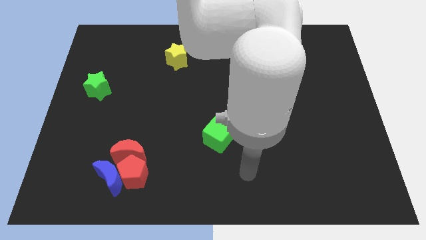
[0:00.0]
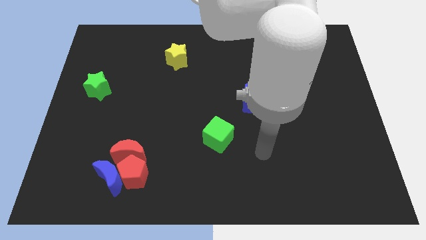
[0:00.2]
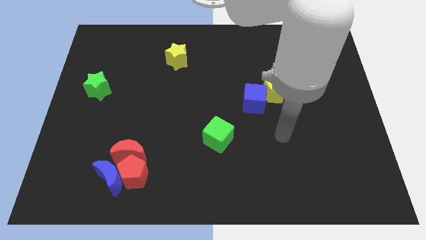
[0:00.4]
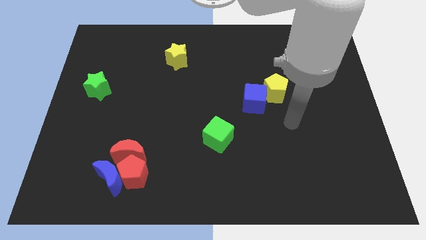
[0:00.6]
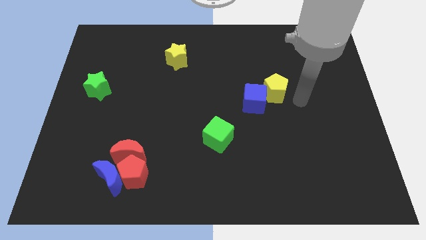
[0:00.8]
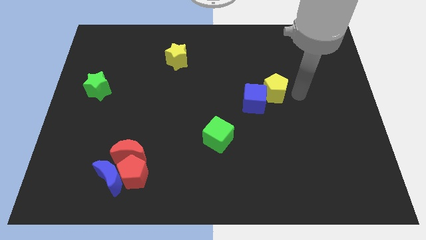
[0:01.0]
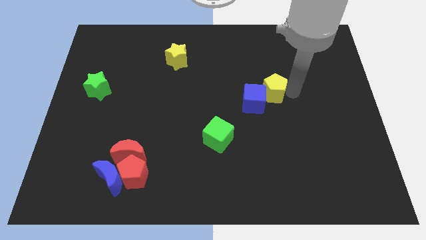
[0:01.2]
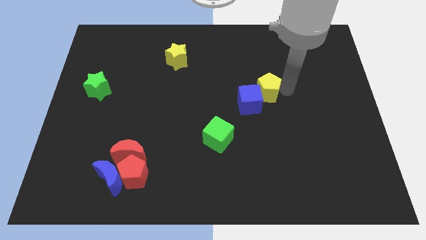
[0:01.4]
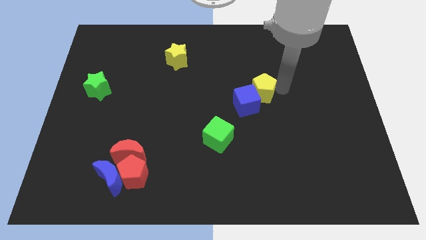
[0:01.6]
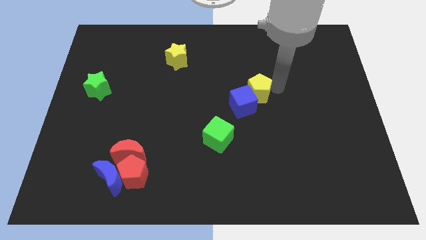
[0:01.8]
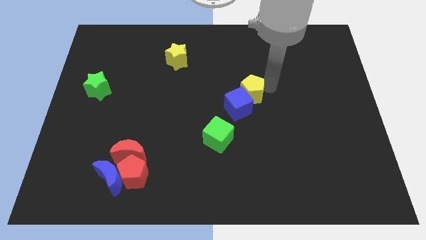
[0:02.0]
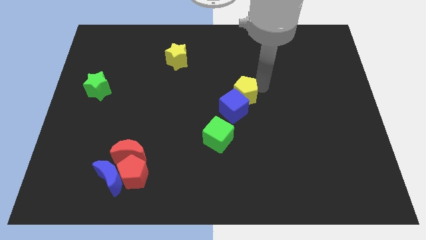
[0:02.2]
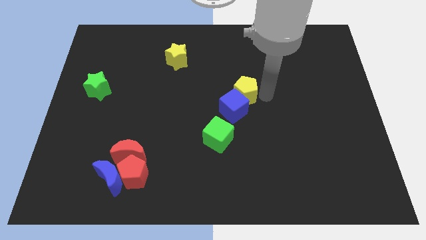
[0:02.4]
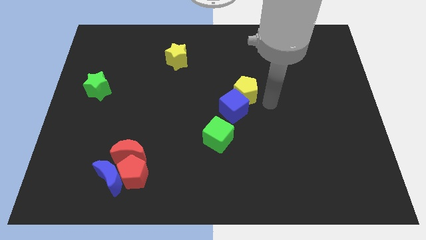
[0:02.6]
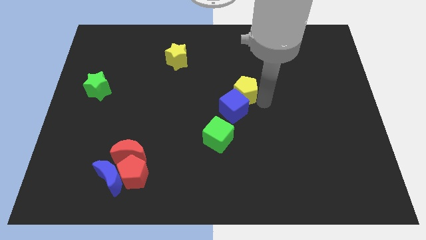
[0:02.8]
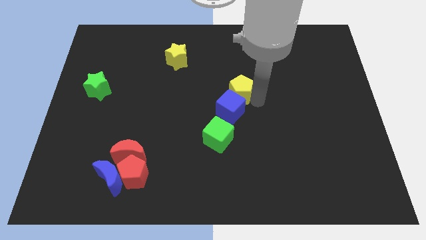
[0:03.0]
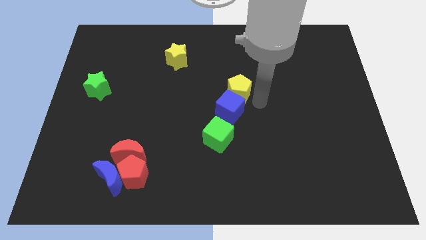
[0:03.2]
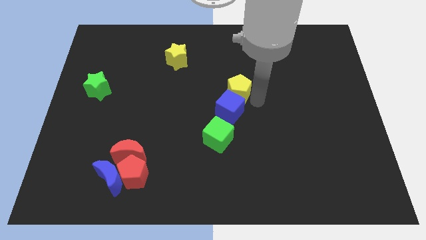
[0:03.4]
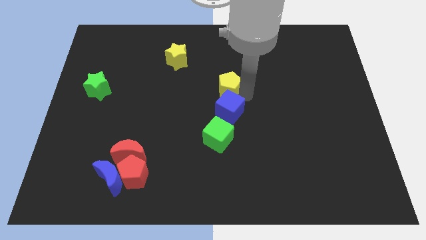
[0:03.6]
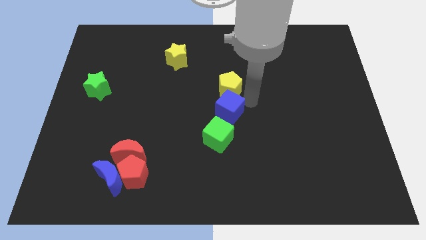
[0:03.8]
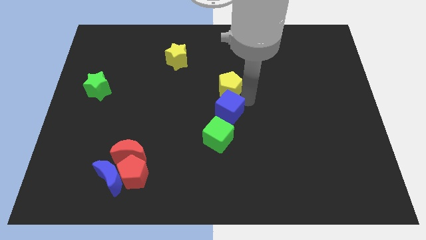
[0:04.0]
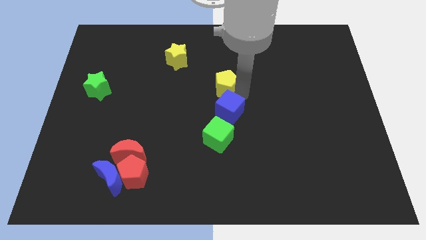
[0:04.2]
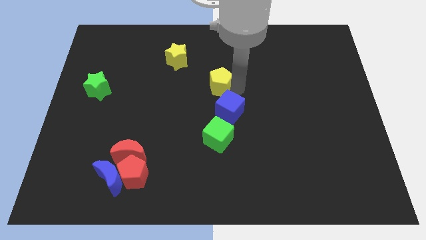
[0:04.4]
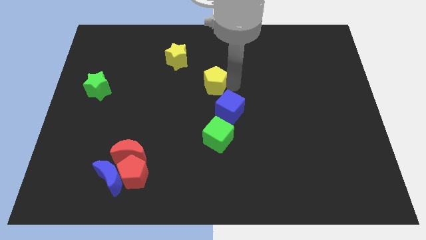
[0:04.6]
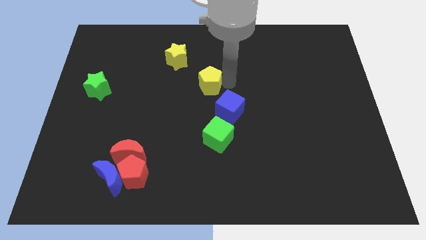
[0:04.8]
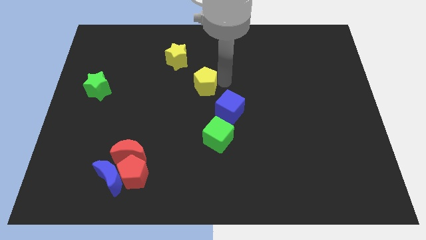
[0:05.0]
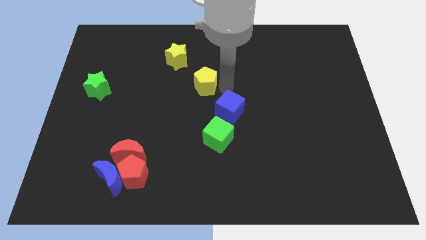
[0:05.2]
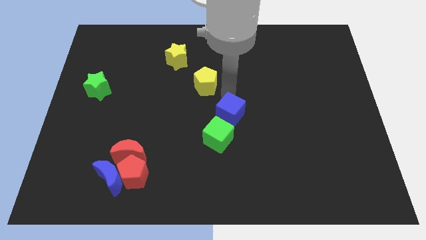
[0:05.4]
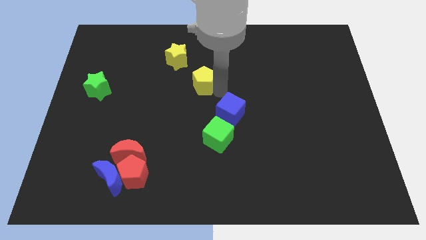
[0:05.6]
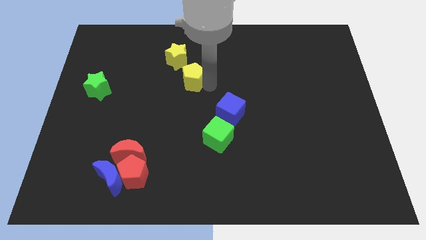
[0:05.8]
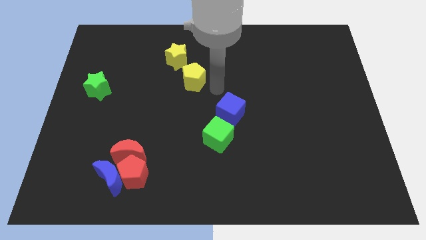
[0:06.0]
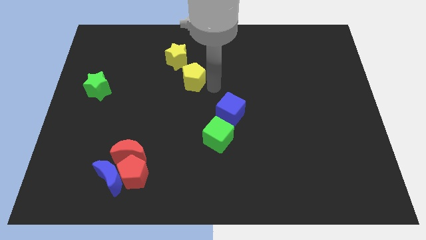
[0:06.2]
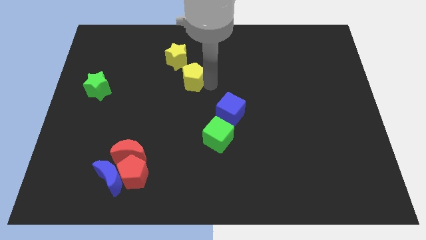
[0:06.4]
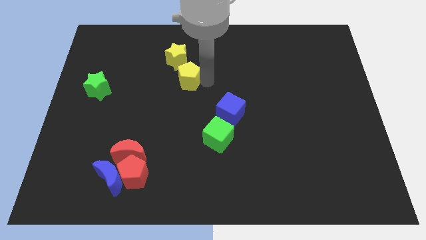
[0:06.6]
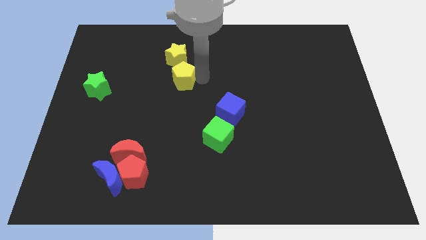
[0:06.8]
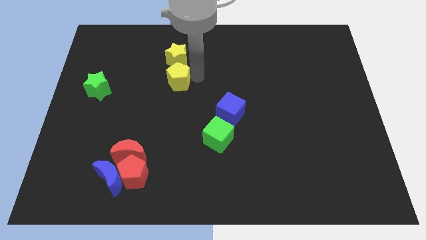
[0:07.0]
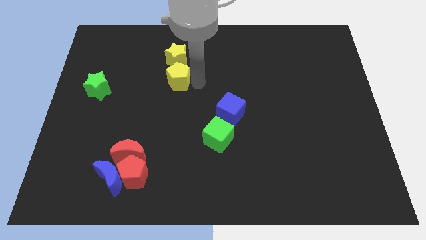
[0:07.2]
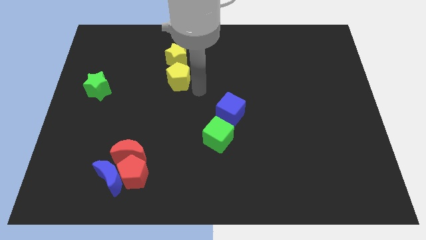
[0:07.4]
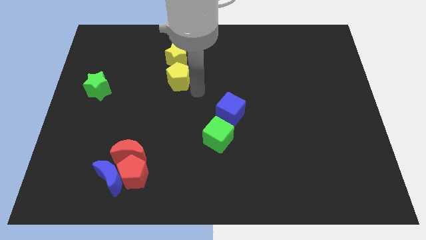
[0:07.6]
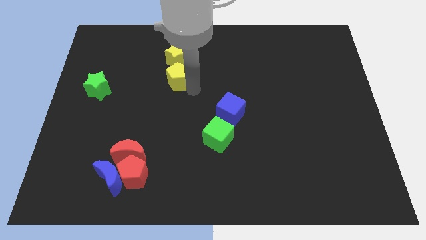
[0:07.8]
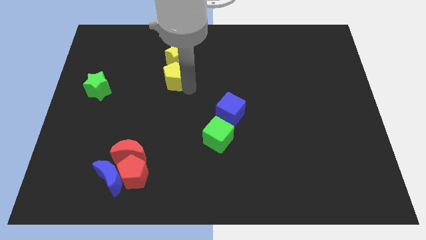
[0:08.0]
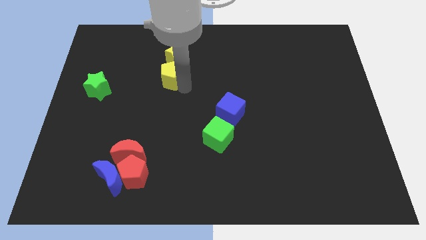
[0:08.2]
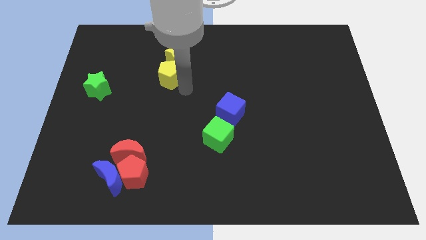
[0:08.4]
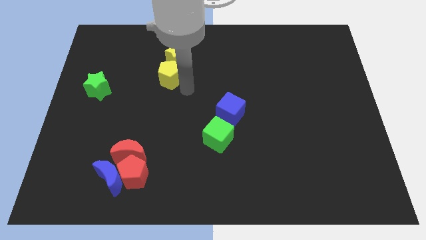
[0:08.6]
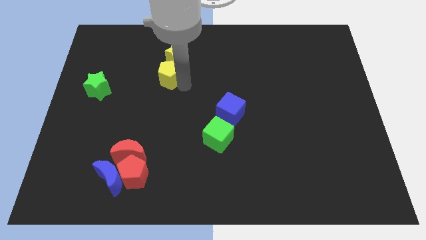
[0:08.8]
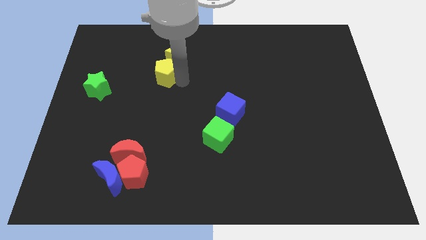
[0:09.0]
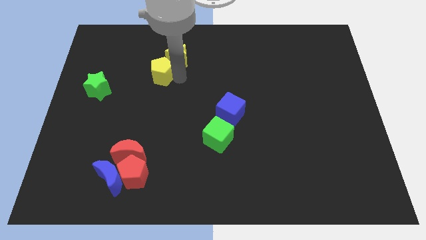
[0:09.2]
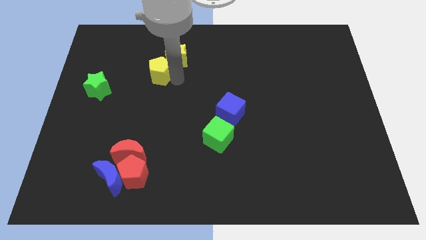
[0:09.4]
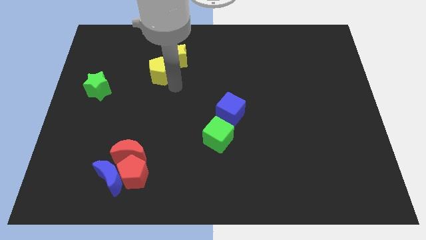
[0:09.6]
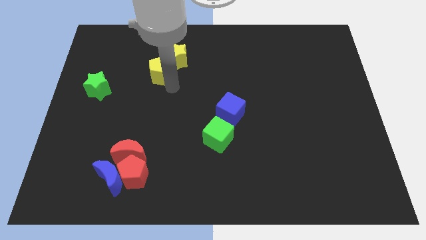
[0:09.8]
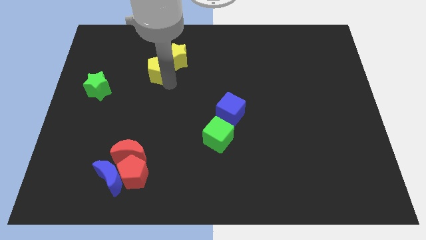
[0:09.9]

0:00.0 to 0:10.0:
put the yellow pentagon to the left side of the yellow star

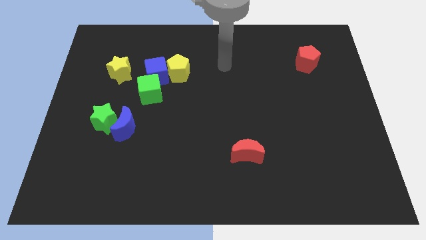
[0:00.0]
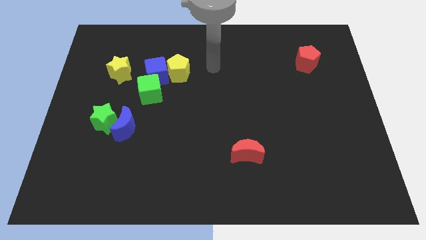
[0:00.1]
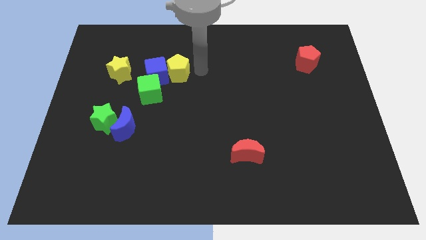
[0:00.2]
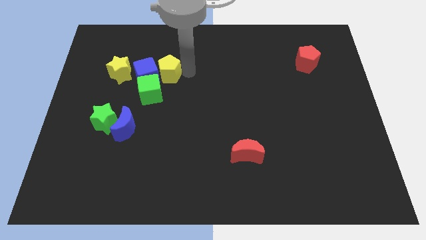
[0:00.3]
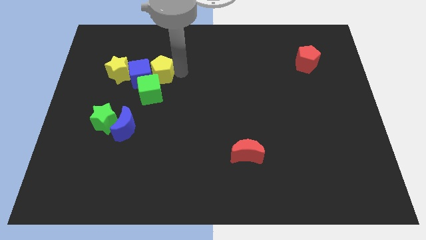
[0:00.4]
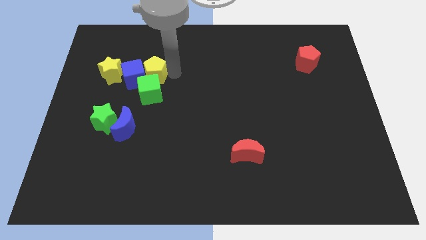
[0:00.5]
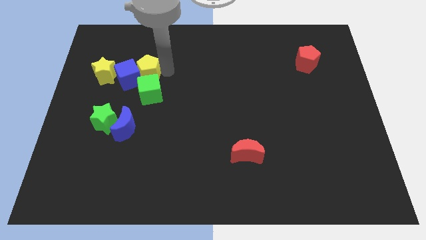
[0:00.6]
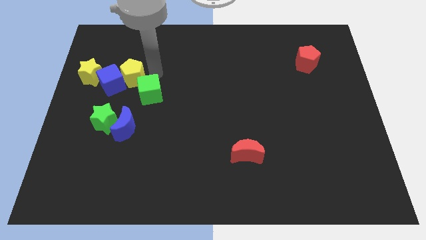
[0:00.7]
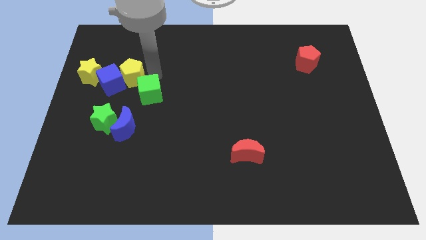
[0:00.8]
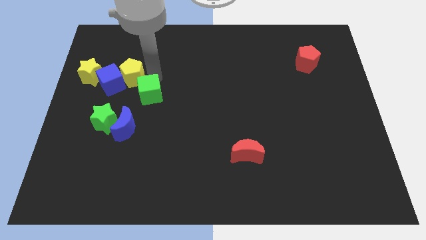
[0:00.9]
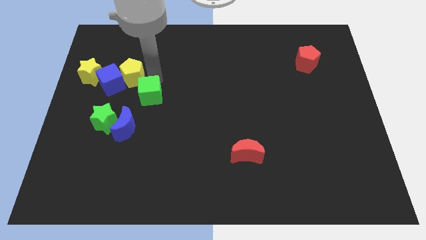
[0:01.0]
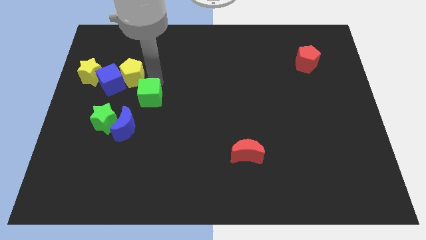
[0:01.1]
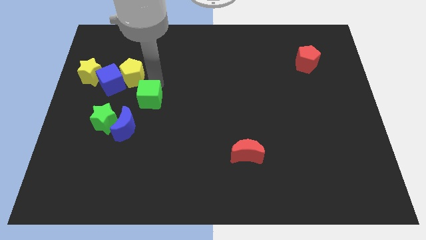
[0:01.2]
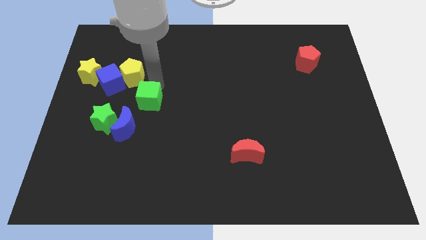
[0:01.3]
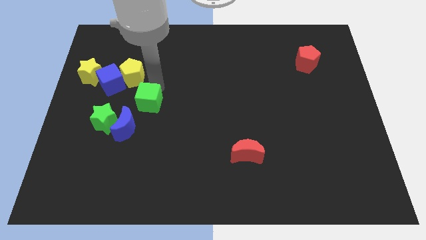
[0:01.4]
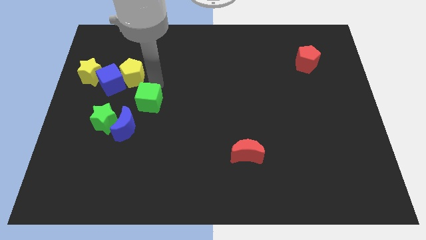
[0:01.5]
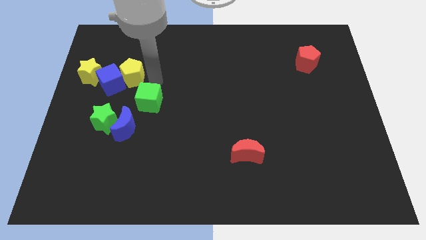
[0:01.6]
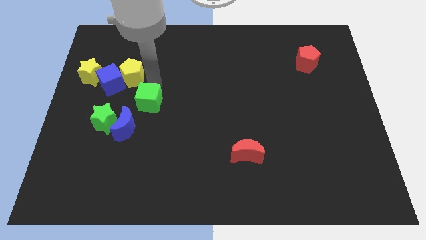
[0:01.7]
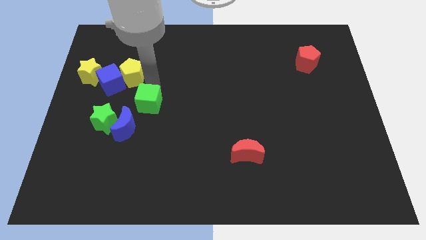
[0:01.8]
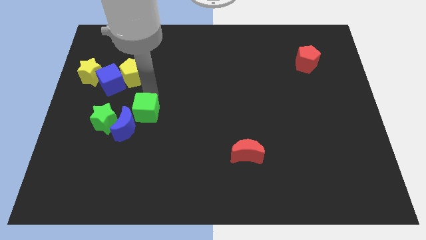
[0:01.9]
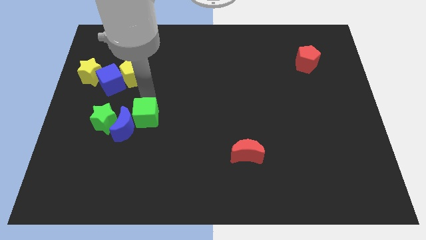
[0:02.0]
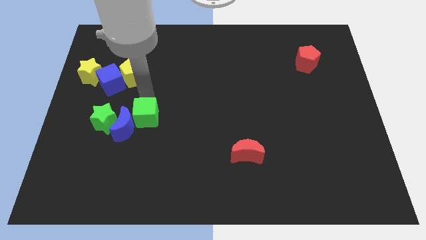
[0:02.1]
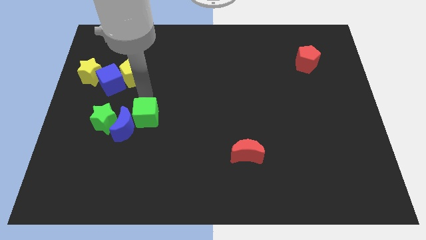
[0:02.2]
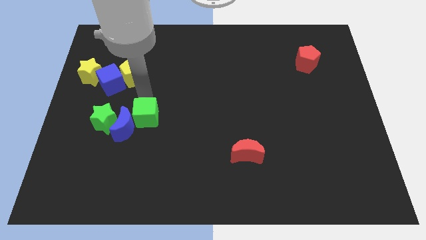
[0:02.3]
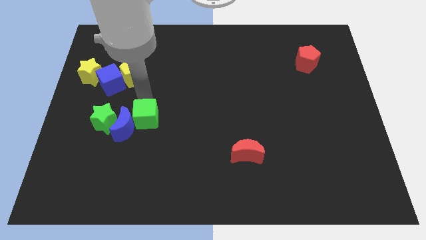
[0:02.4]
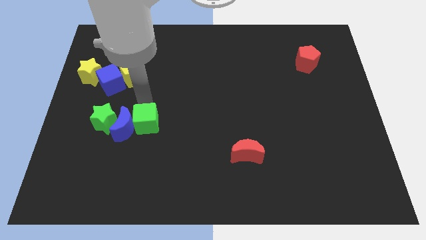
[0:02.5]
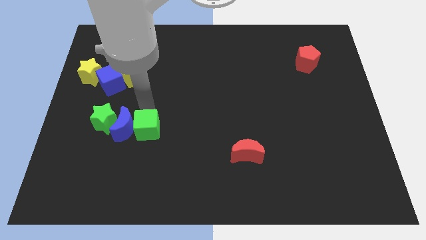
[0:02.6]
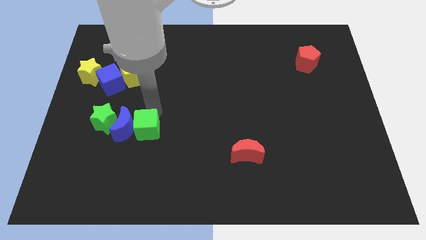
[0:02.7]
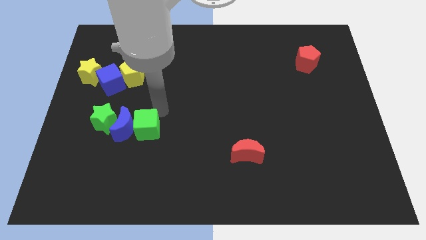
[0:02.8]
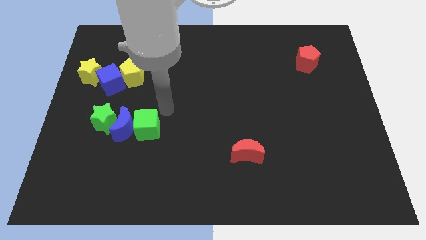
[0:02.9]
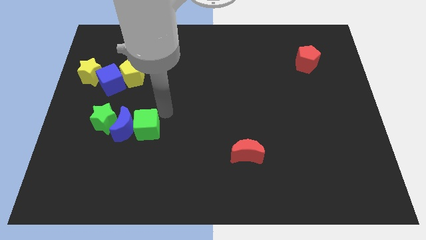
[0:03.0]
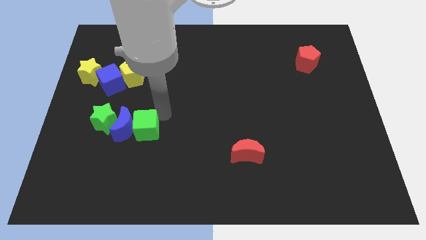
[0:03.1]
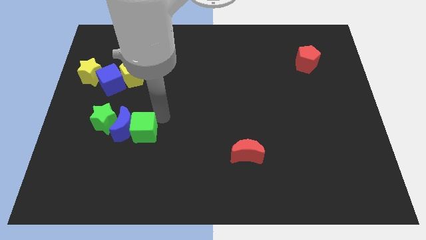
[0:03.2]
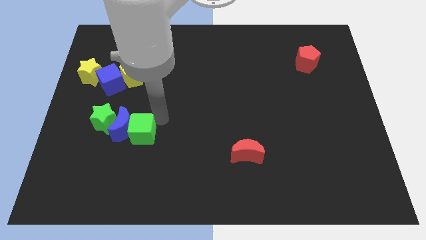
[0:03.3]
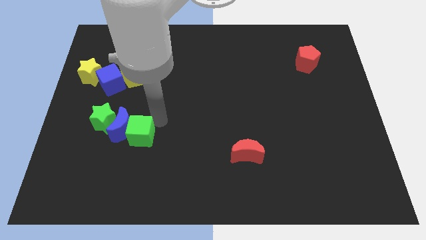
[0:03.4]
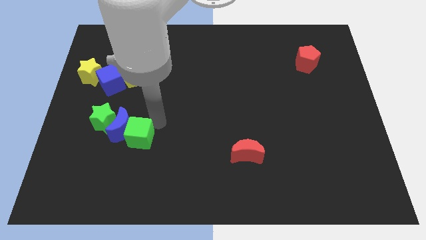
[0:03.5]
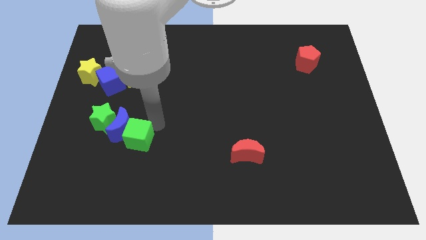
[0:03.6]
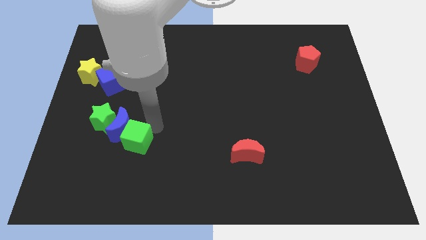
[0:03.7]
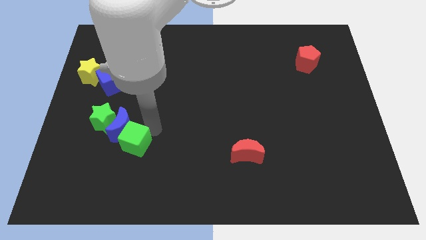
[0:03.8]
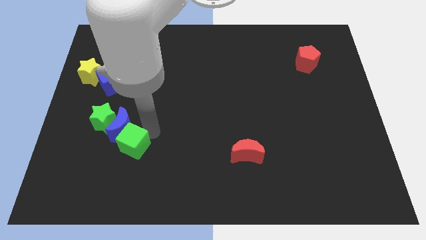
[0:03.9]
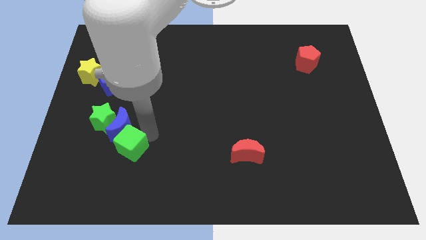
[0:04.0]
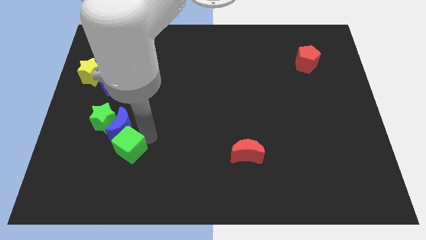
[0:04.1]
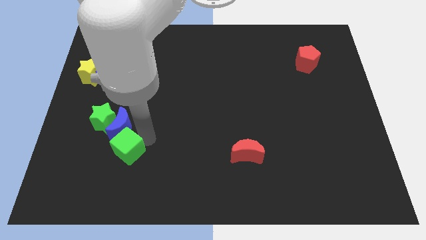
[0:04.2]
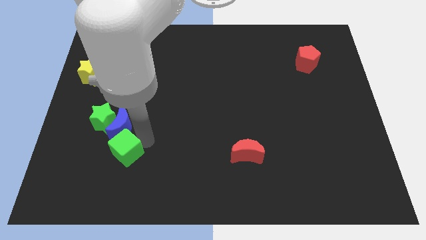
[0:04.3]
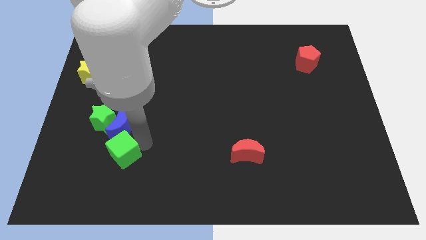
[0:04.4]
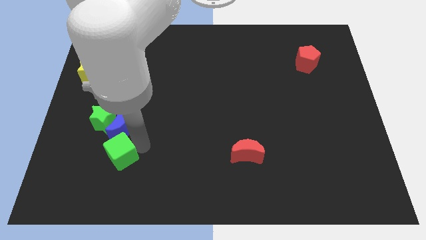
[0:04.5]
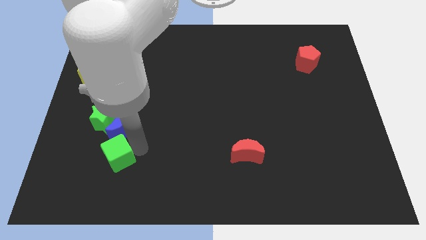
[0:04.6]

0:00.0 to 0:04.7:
put the green cube to the bottom of the green star
